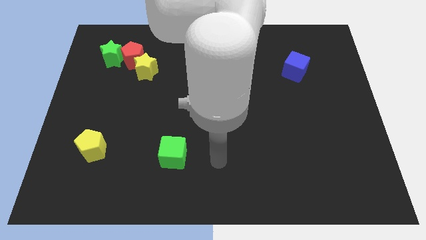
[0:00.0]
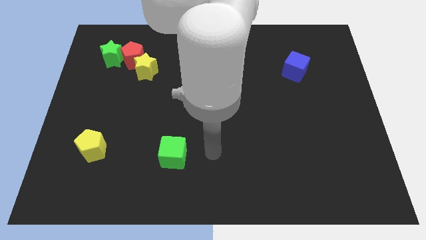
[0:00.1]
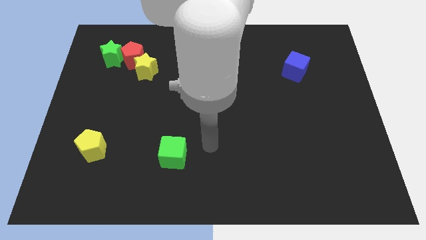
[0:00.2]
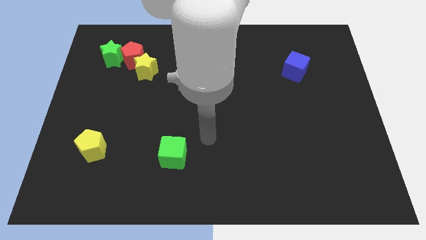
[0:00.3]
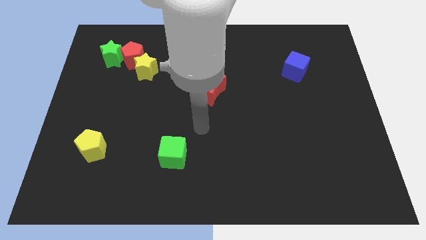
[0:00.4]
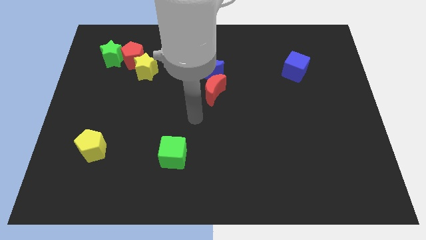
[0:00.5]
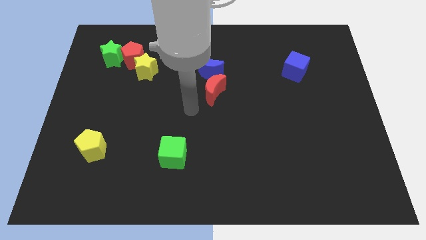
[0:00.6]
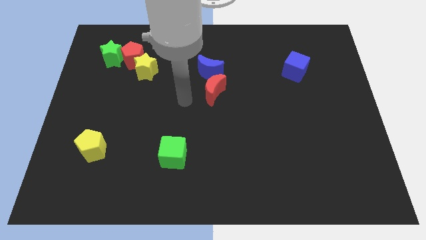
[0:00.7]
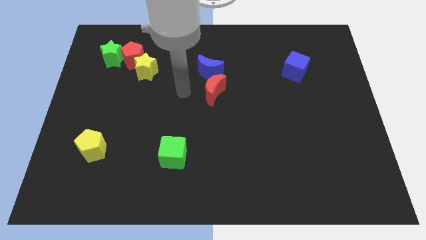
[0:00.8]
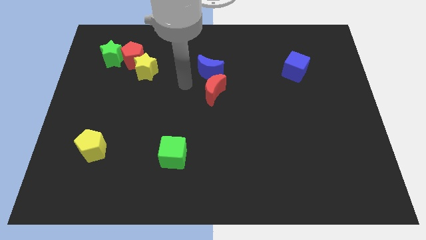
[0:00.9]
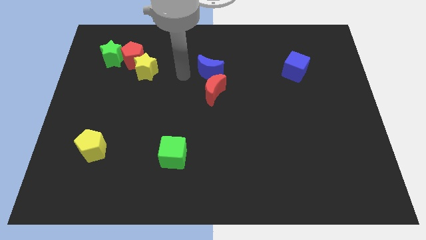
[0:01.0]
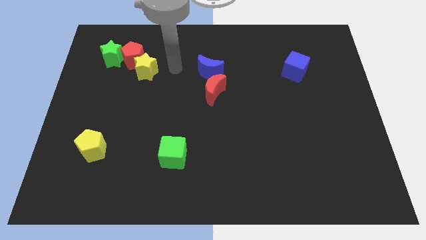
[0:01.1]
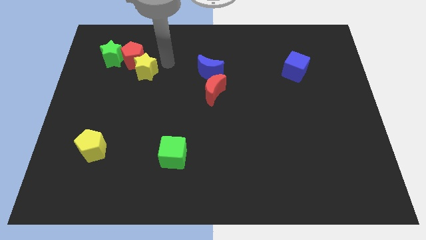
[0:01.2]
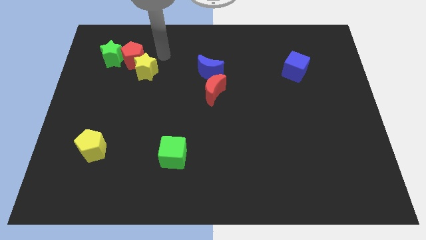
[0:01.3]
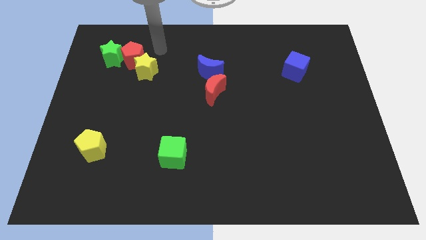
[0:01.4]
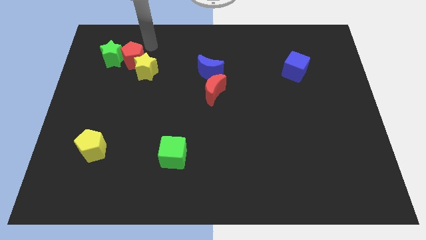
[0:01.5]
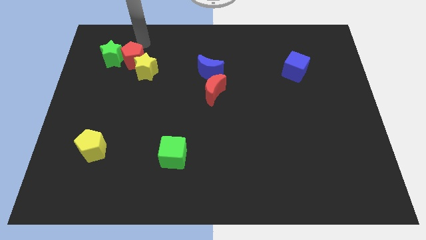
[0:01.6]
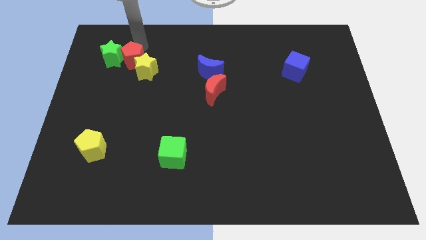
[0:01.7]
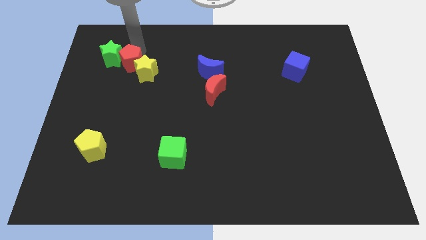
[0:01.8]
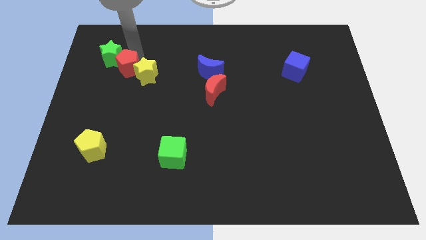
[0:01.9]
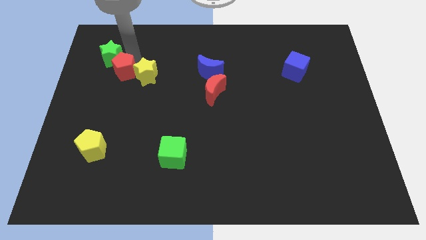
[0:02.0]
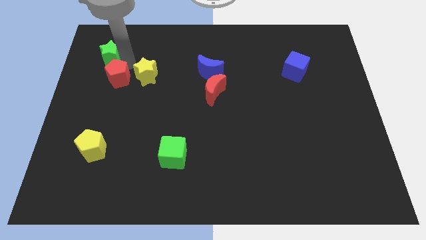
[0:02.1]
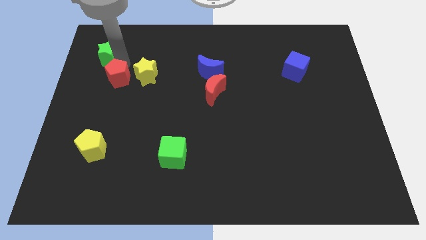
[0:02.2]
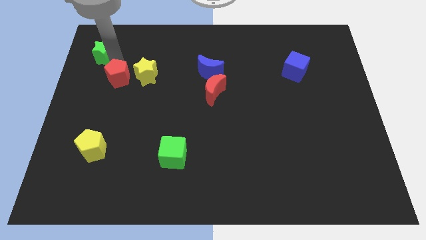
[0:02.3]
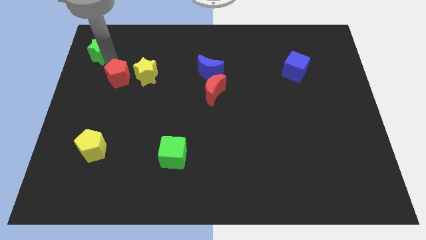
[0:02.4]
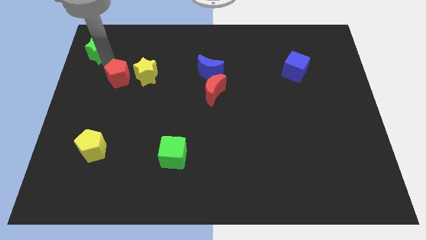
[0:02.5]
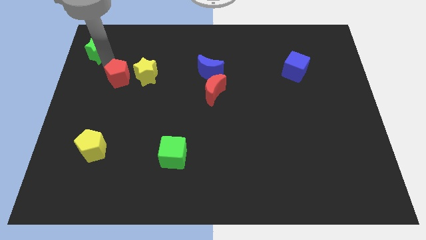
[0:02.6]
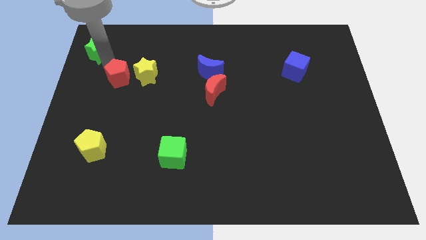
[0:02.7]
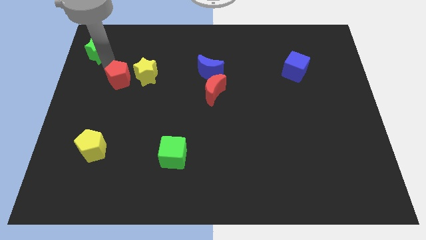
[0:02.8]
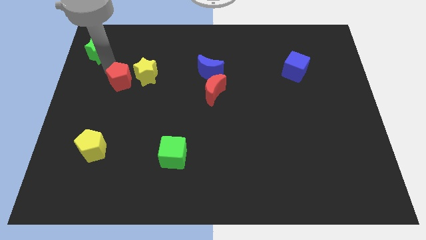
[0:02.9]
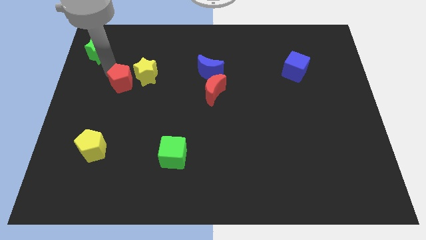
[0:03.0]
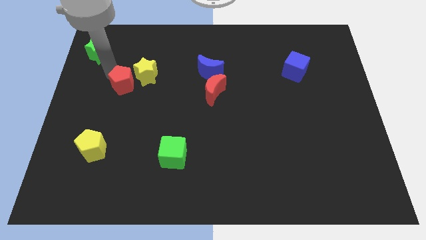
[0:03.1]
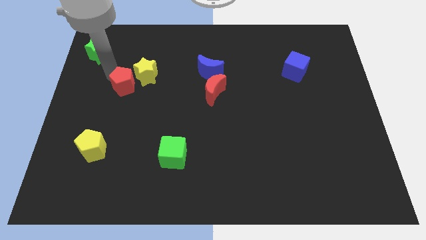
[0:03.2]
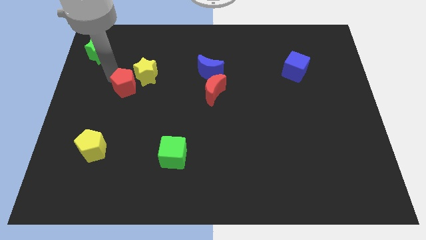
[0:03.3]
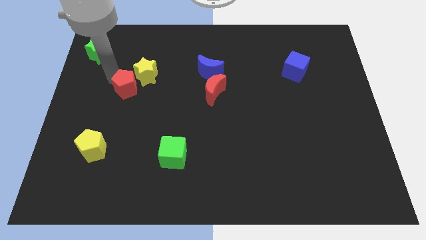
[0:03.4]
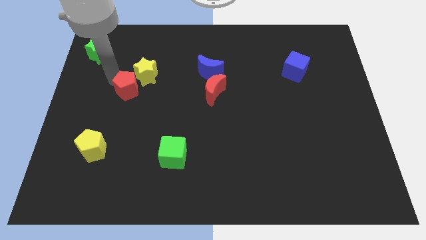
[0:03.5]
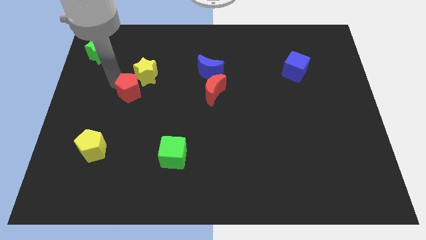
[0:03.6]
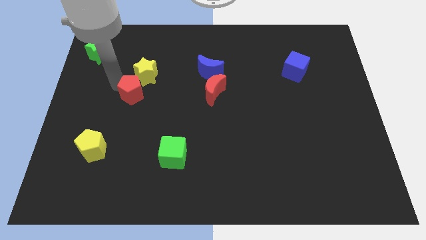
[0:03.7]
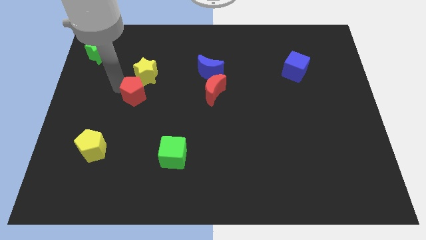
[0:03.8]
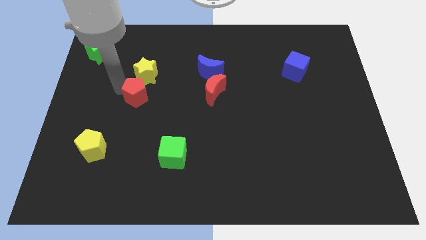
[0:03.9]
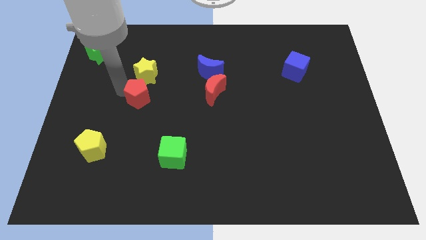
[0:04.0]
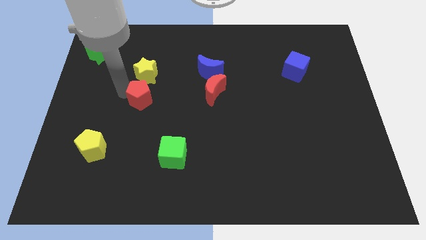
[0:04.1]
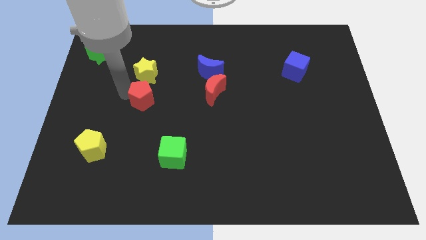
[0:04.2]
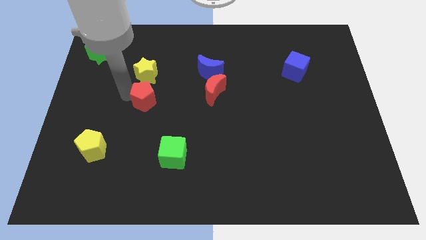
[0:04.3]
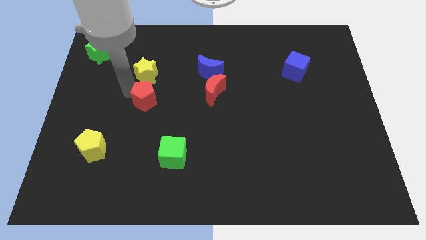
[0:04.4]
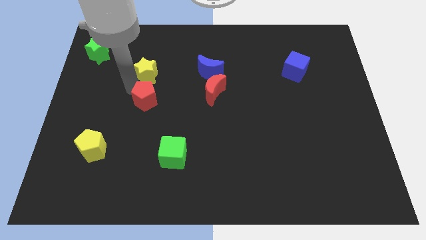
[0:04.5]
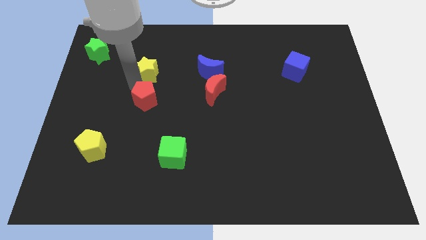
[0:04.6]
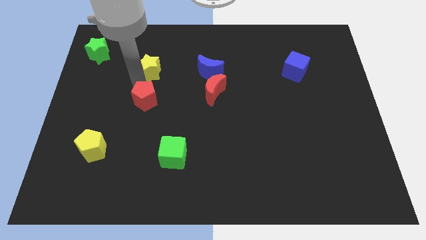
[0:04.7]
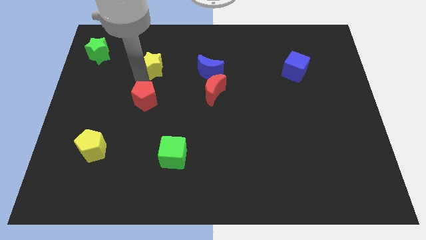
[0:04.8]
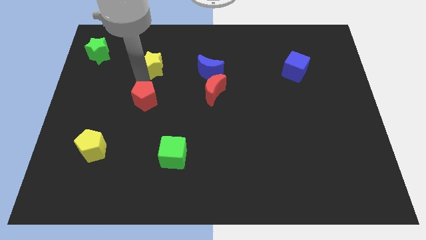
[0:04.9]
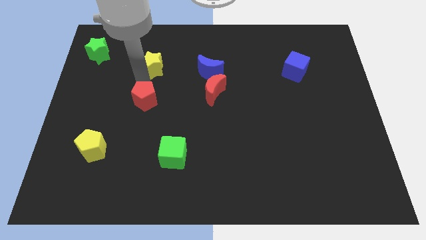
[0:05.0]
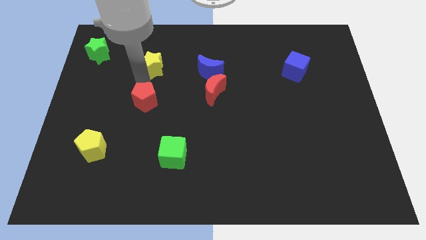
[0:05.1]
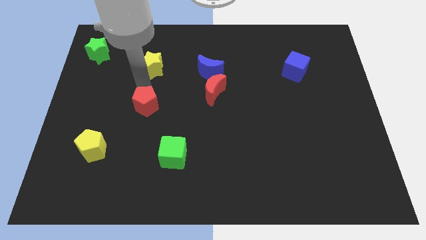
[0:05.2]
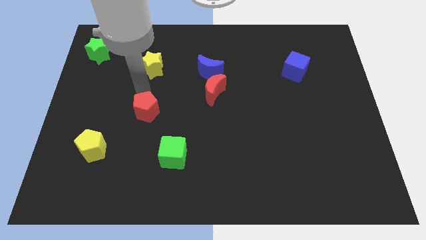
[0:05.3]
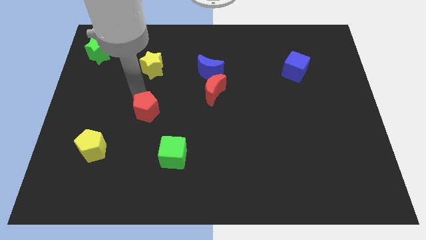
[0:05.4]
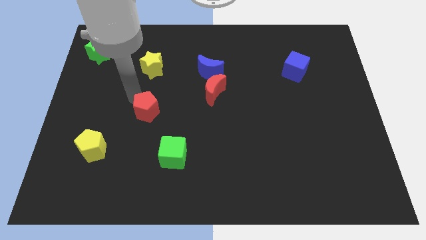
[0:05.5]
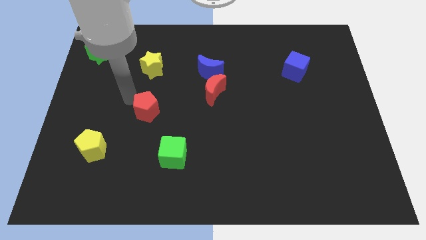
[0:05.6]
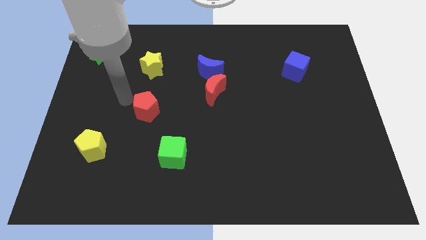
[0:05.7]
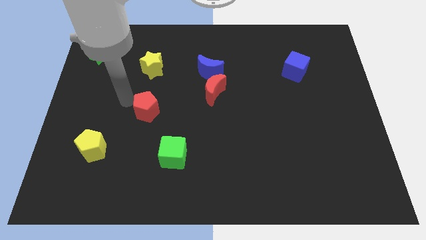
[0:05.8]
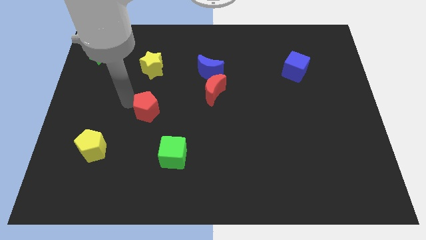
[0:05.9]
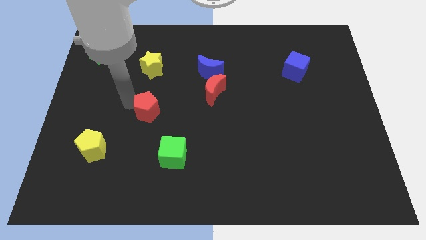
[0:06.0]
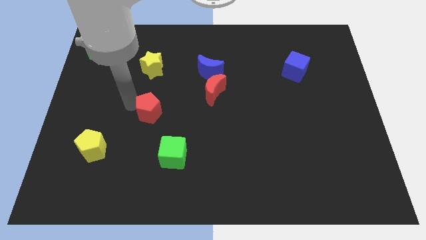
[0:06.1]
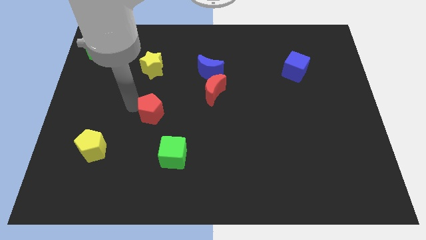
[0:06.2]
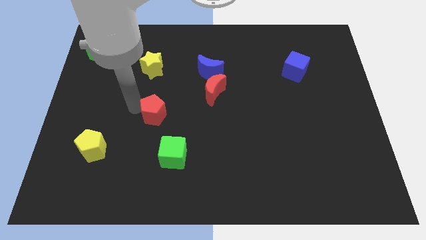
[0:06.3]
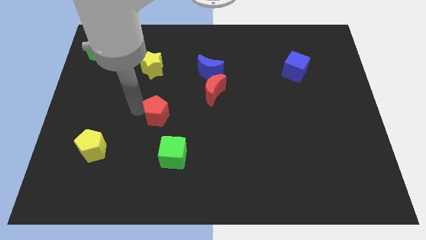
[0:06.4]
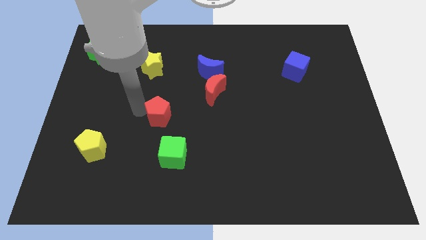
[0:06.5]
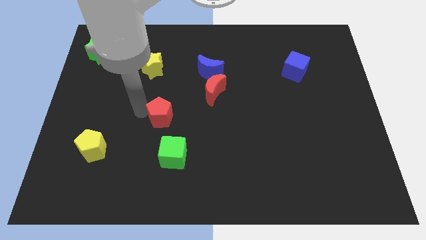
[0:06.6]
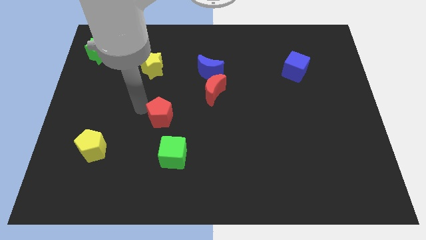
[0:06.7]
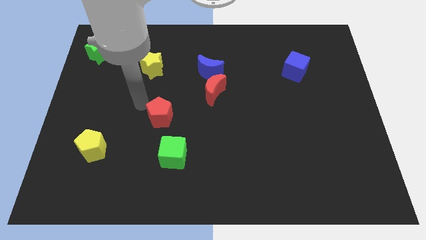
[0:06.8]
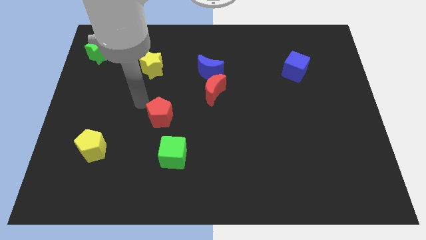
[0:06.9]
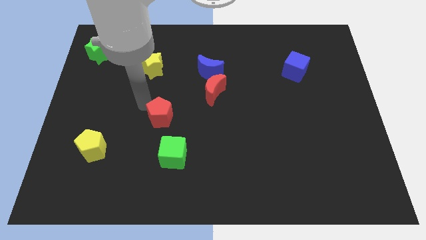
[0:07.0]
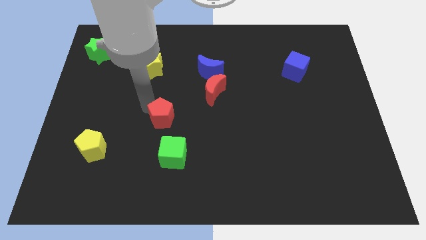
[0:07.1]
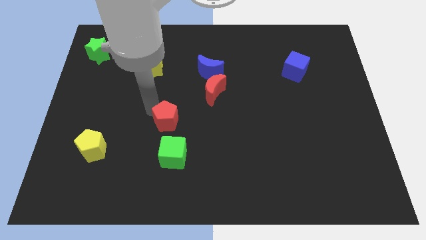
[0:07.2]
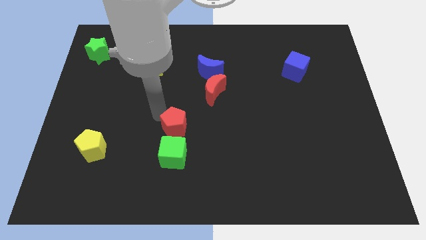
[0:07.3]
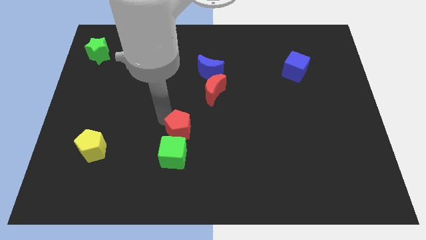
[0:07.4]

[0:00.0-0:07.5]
push the red pentagon diagonally up and to the right of the green cube
